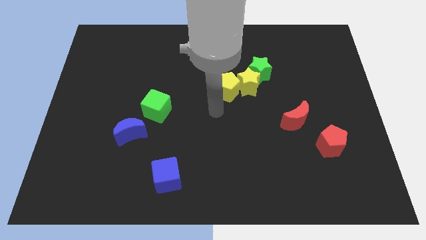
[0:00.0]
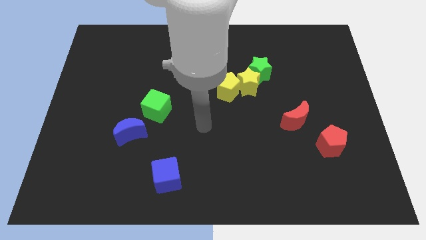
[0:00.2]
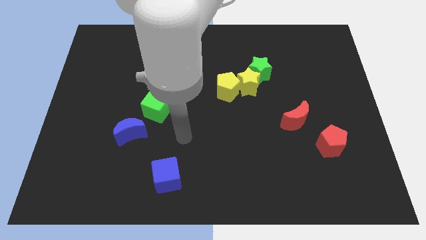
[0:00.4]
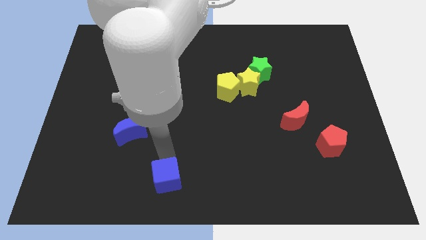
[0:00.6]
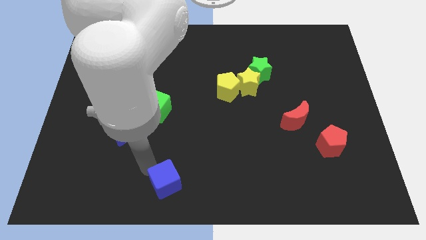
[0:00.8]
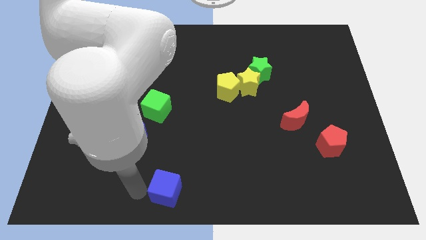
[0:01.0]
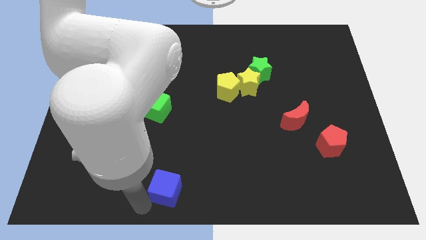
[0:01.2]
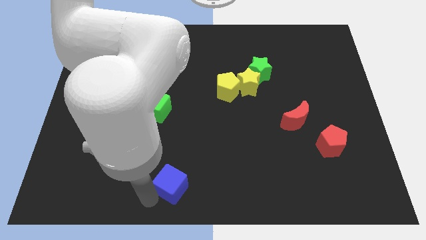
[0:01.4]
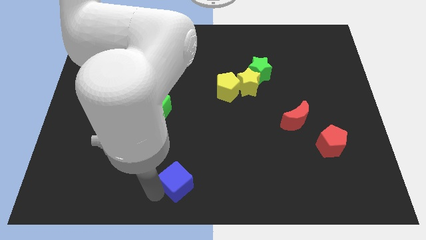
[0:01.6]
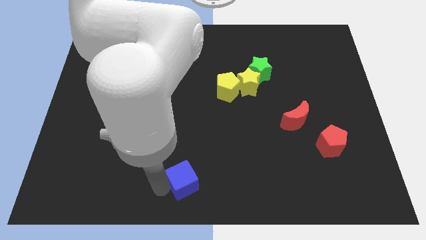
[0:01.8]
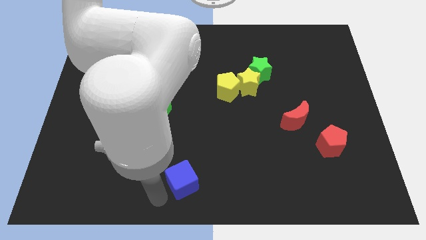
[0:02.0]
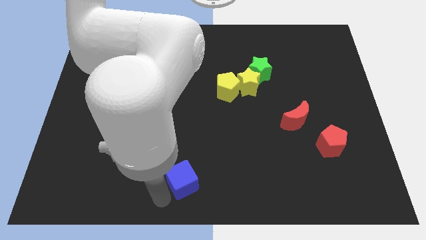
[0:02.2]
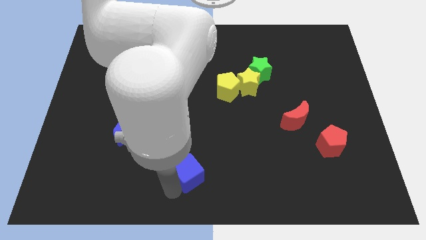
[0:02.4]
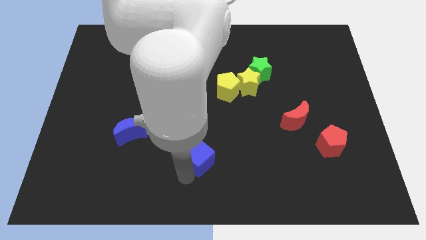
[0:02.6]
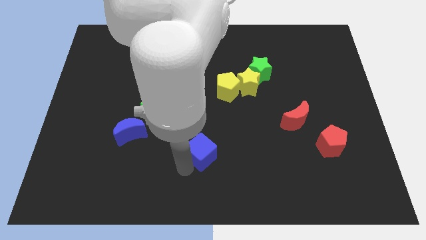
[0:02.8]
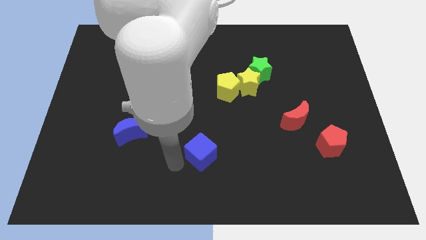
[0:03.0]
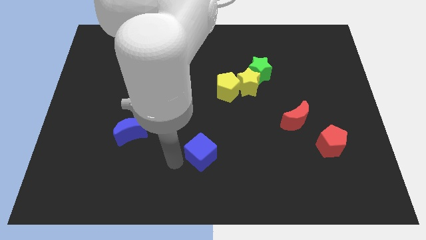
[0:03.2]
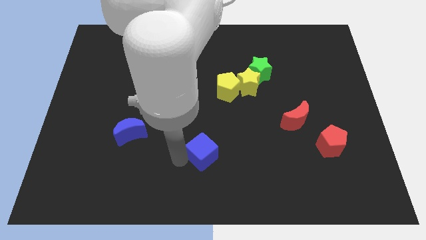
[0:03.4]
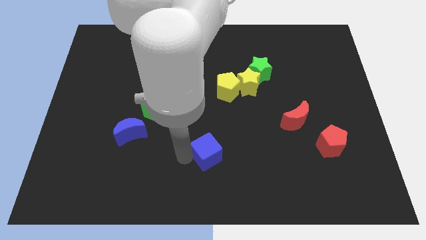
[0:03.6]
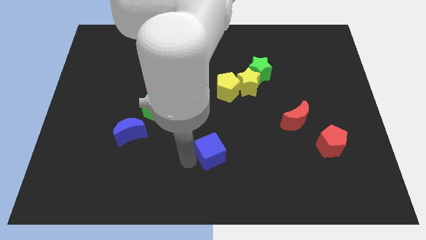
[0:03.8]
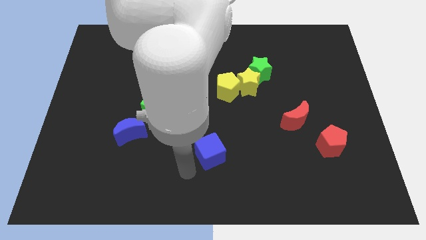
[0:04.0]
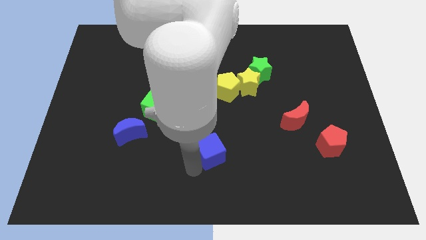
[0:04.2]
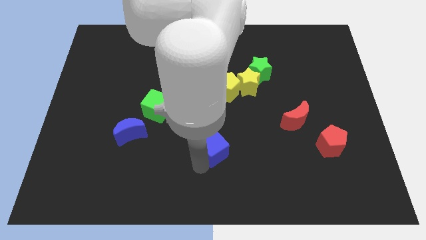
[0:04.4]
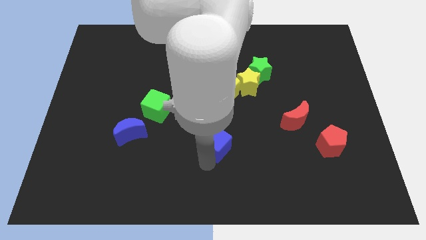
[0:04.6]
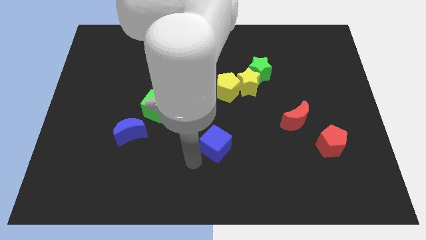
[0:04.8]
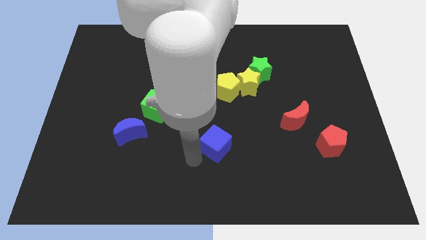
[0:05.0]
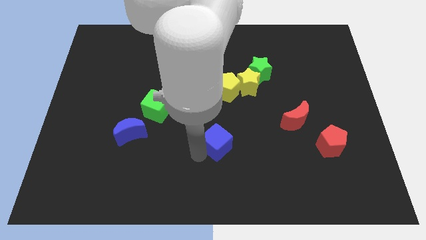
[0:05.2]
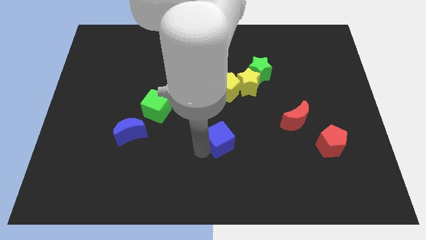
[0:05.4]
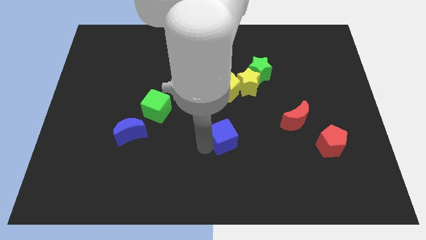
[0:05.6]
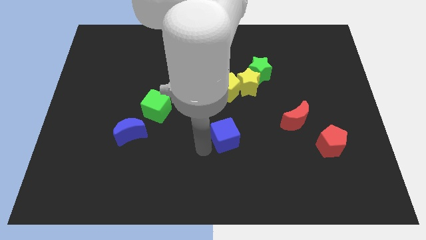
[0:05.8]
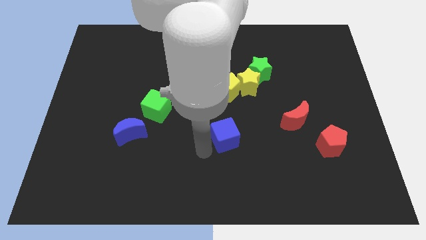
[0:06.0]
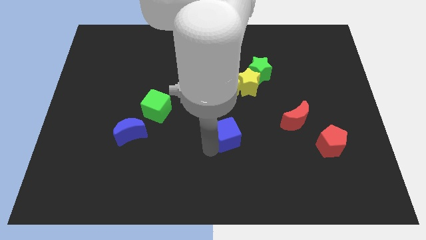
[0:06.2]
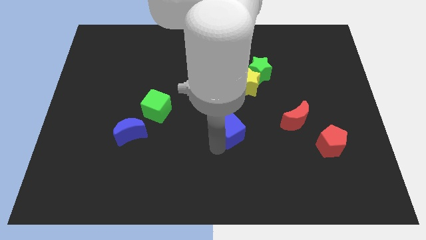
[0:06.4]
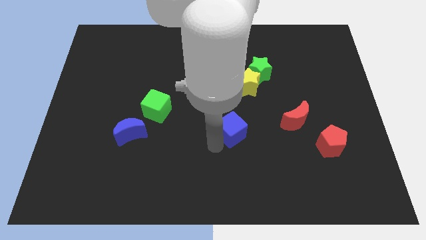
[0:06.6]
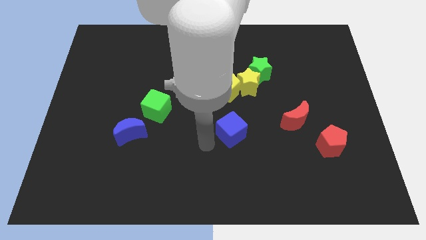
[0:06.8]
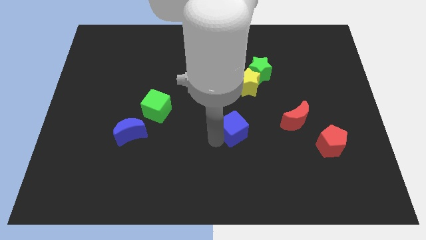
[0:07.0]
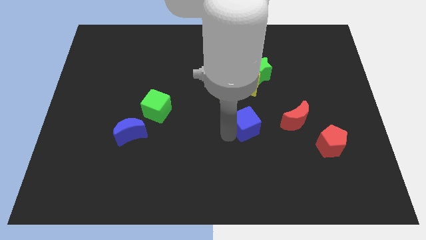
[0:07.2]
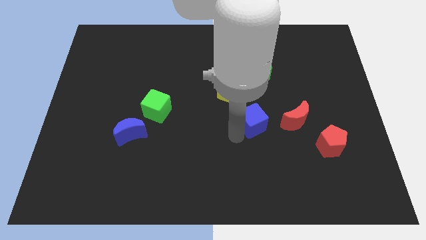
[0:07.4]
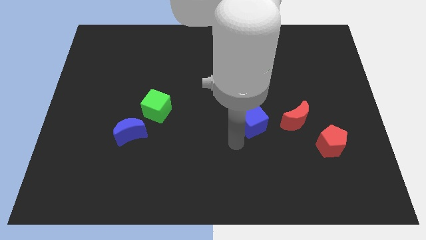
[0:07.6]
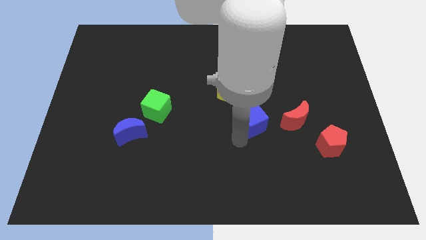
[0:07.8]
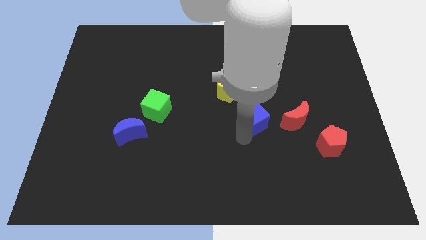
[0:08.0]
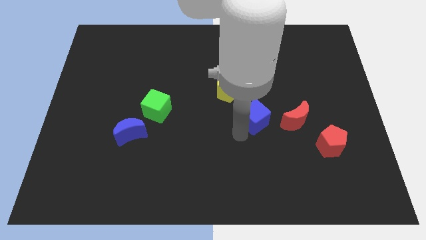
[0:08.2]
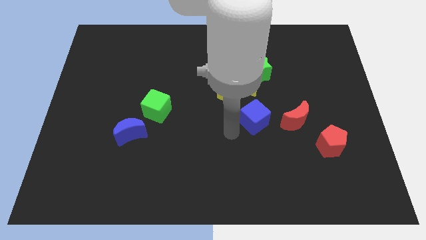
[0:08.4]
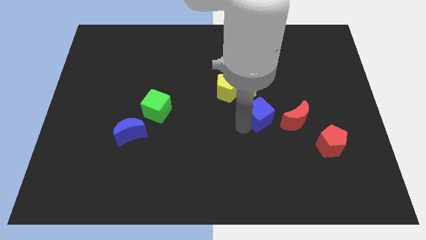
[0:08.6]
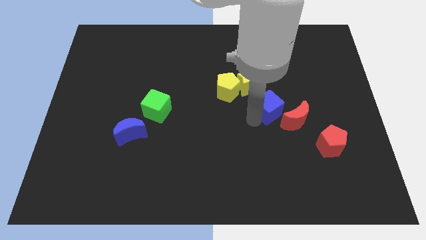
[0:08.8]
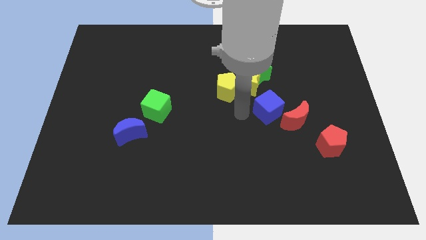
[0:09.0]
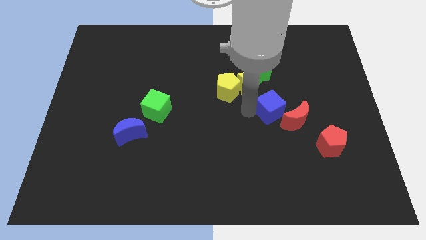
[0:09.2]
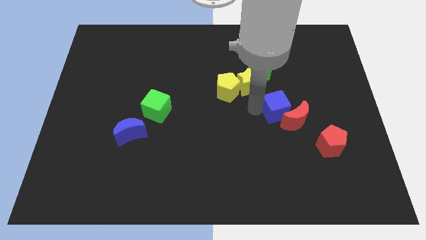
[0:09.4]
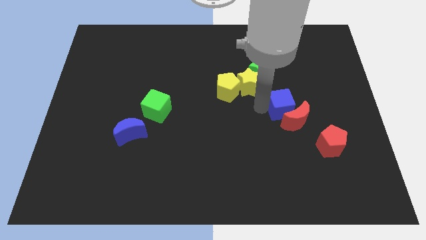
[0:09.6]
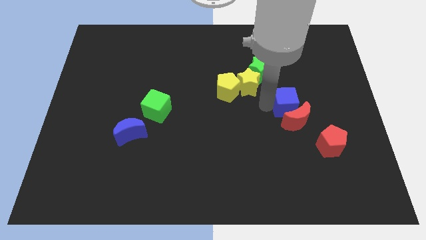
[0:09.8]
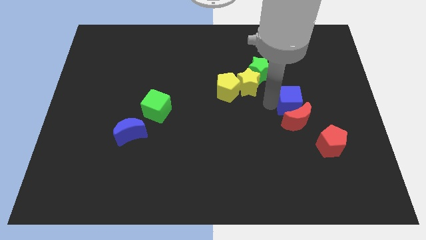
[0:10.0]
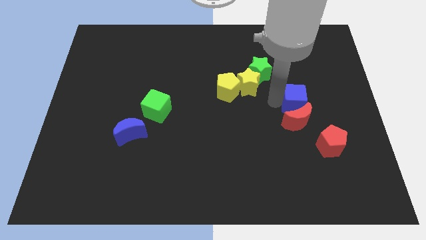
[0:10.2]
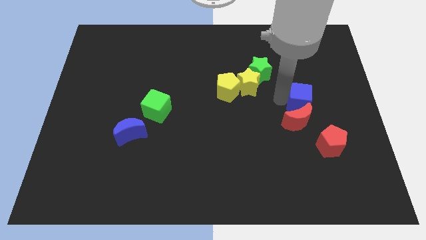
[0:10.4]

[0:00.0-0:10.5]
put the blue cube to the top of the red pentagon

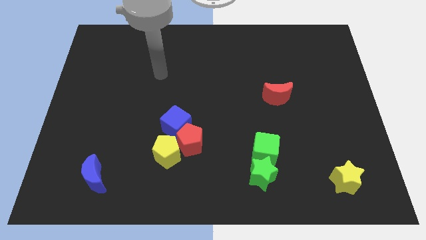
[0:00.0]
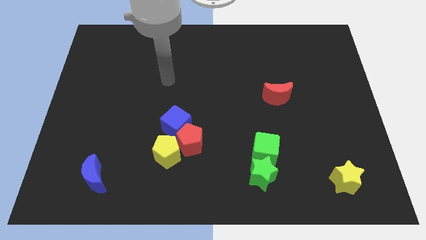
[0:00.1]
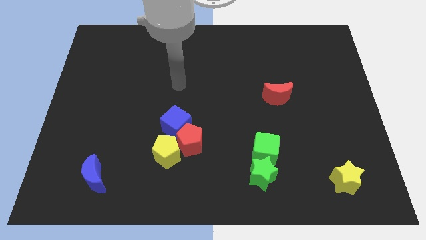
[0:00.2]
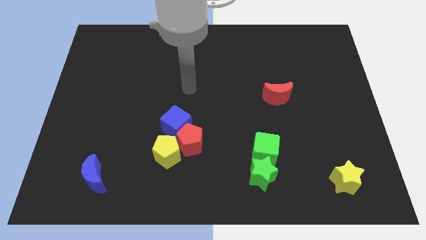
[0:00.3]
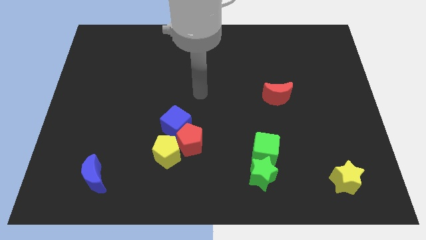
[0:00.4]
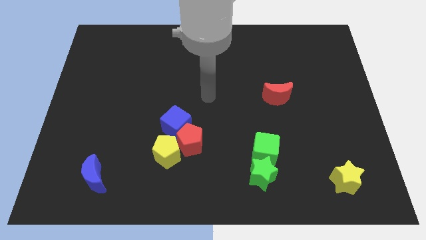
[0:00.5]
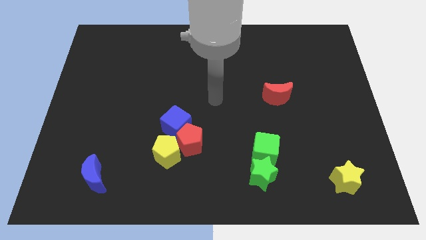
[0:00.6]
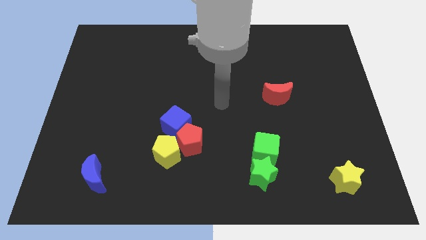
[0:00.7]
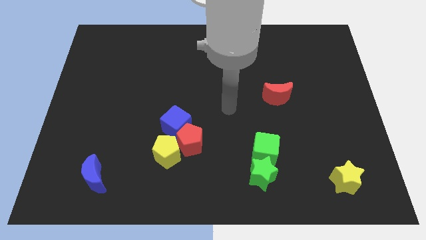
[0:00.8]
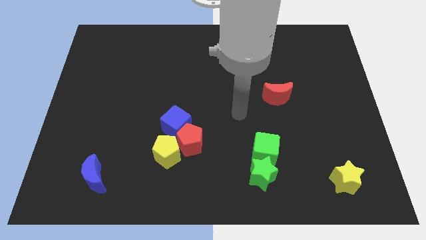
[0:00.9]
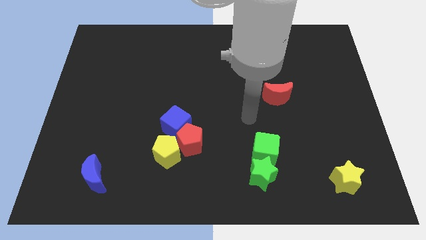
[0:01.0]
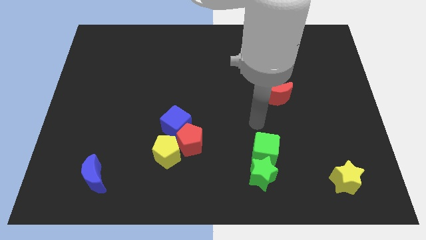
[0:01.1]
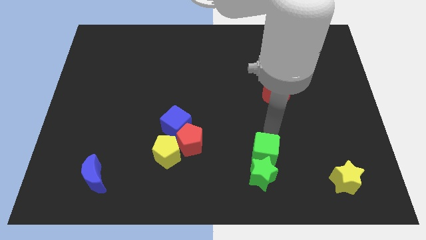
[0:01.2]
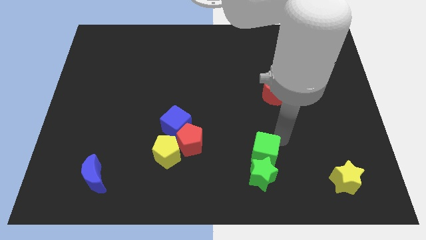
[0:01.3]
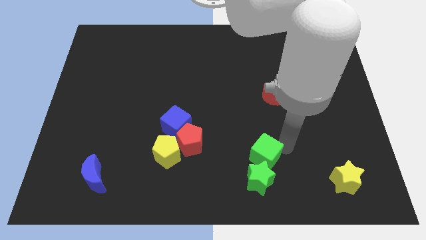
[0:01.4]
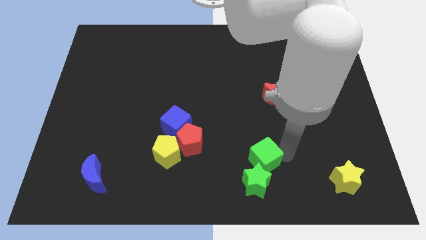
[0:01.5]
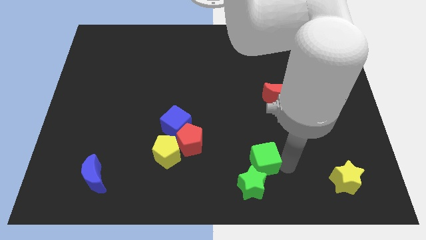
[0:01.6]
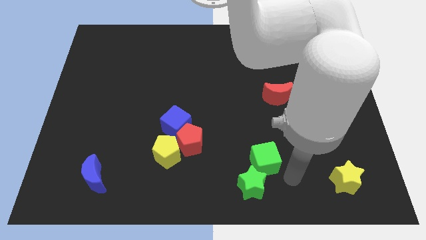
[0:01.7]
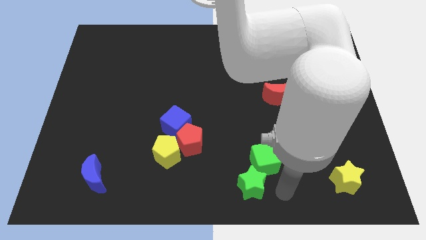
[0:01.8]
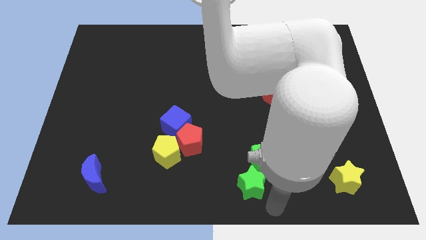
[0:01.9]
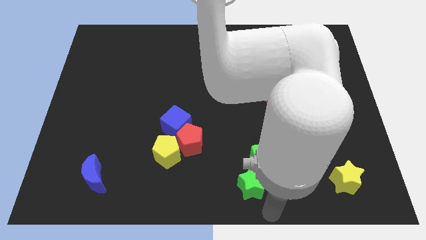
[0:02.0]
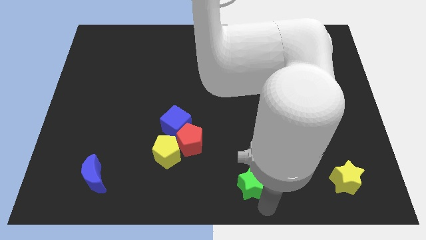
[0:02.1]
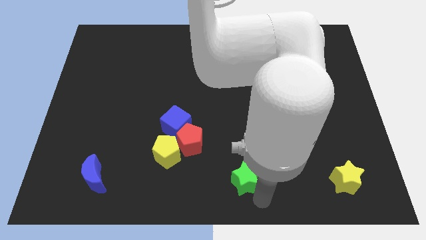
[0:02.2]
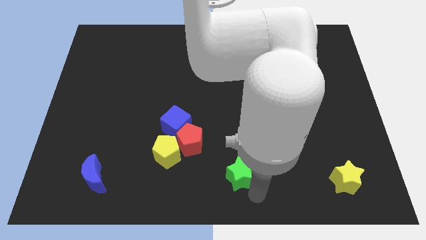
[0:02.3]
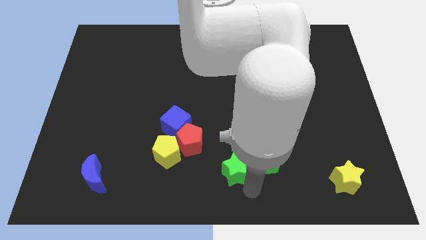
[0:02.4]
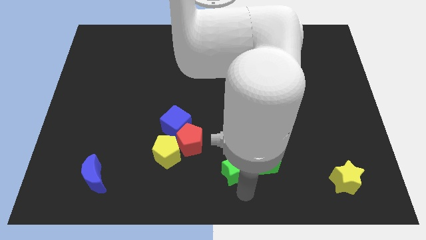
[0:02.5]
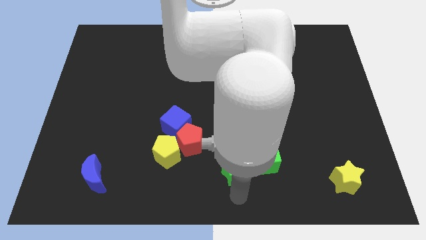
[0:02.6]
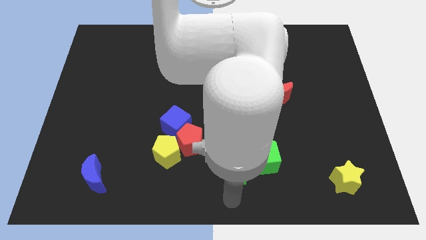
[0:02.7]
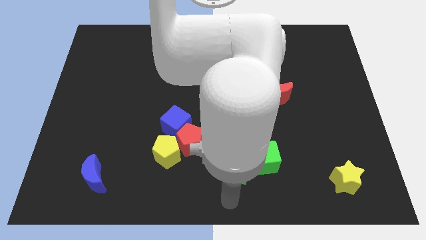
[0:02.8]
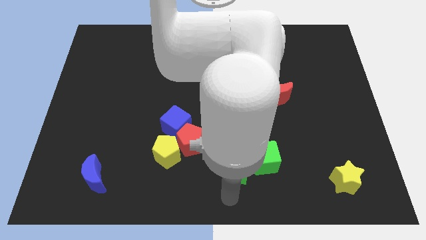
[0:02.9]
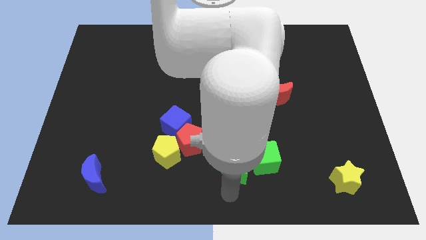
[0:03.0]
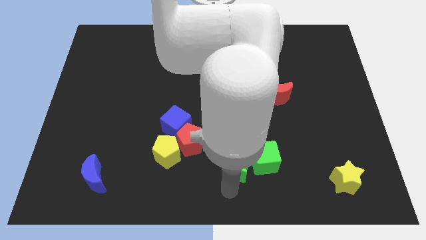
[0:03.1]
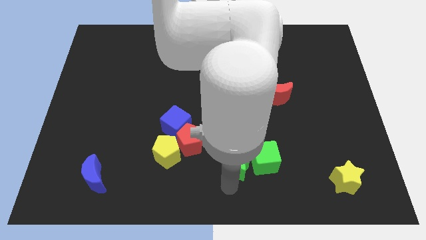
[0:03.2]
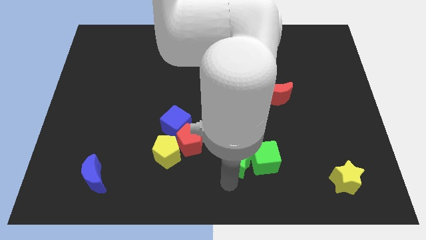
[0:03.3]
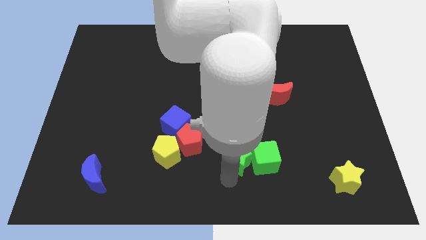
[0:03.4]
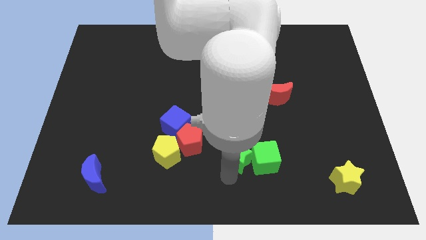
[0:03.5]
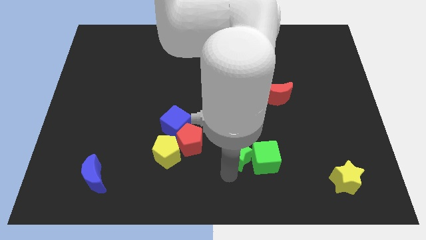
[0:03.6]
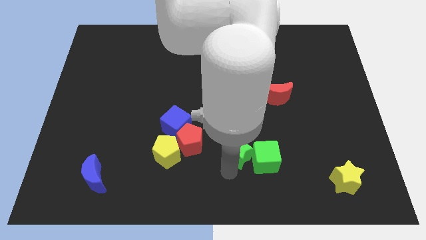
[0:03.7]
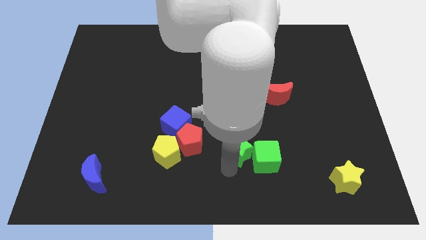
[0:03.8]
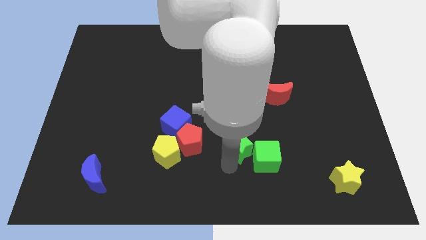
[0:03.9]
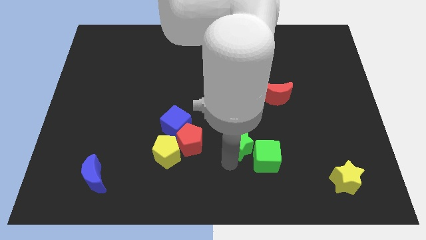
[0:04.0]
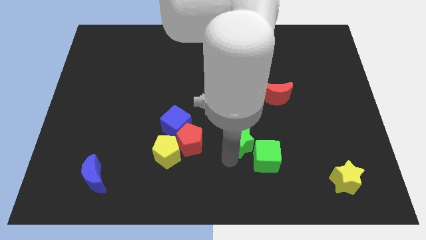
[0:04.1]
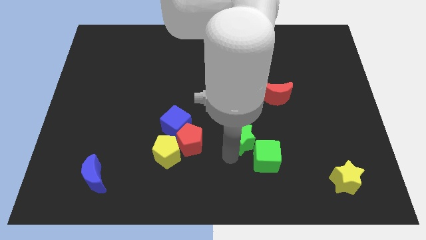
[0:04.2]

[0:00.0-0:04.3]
push the green star to the top of the green cube
